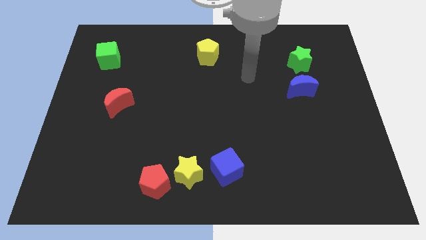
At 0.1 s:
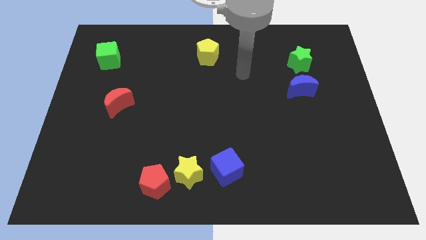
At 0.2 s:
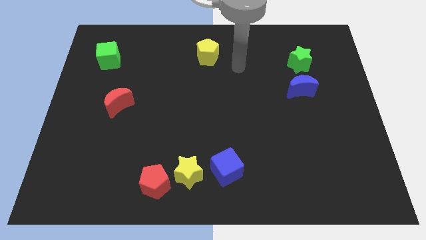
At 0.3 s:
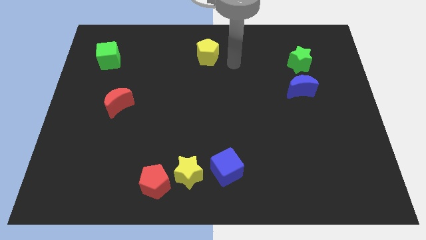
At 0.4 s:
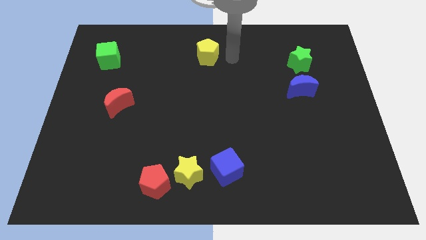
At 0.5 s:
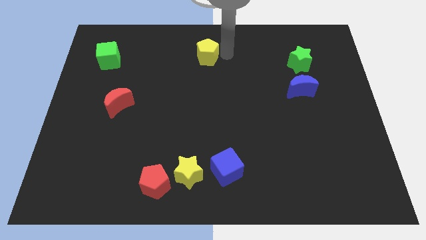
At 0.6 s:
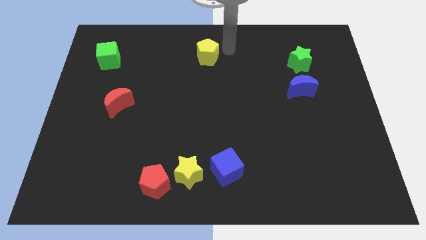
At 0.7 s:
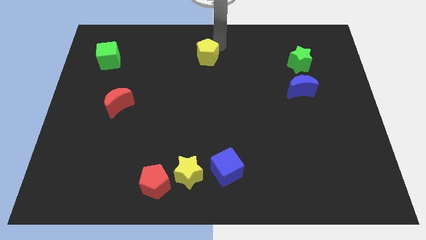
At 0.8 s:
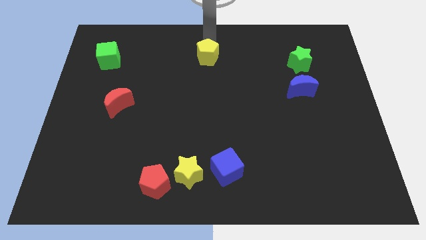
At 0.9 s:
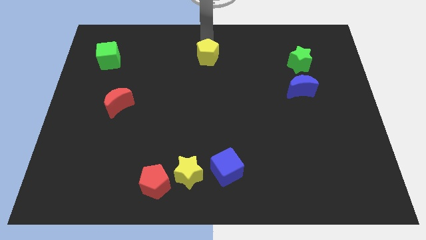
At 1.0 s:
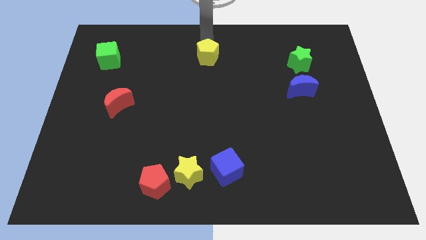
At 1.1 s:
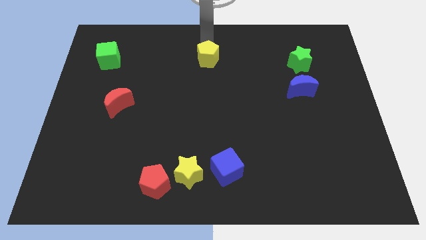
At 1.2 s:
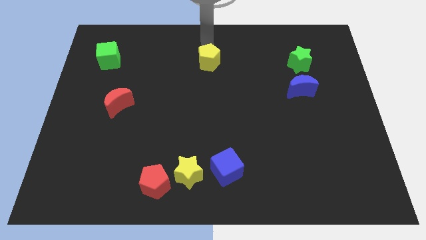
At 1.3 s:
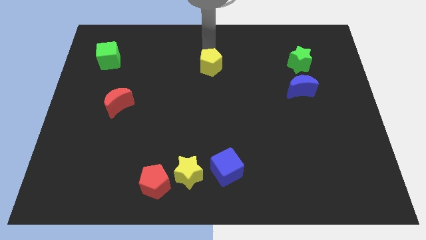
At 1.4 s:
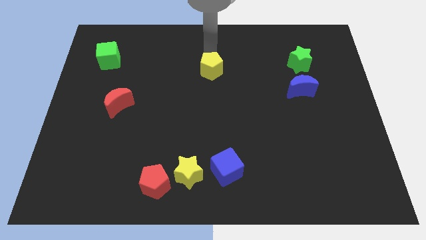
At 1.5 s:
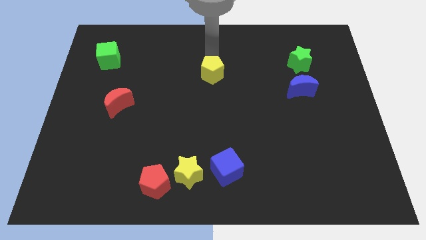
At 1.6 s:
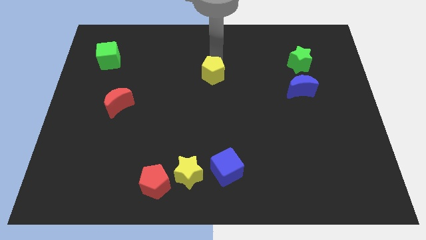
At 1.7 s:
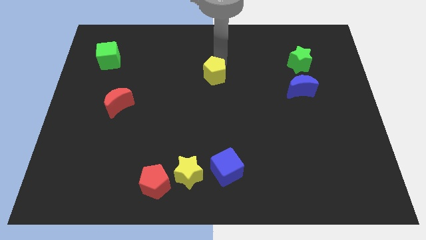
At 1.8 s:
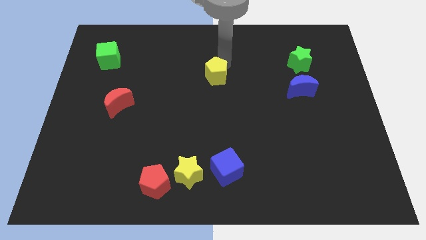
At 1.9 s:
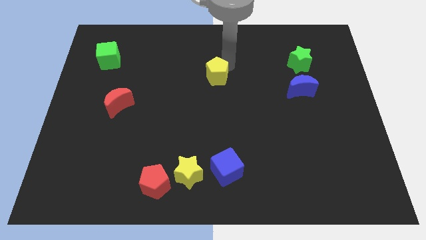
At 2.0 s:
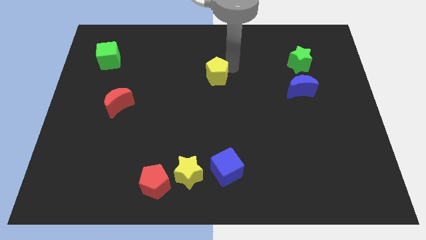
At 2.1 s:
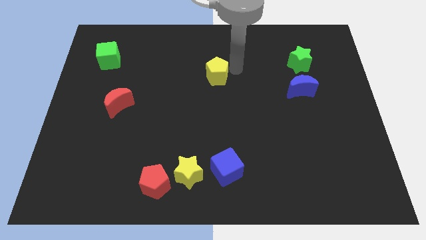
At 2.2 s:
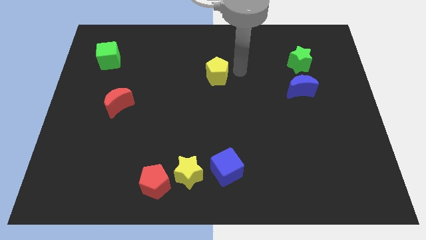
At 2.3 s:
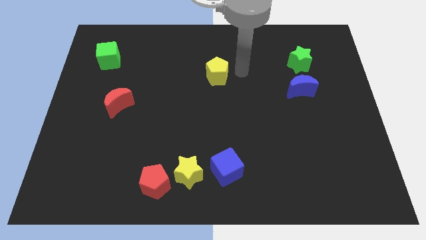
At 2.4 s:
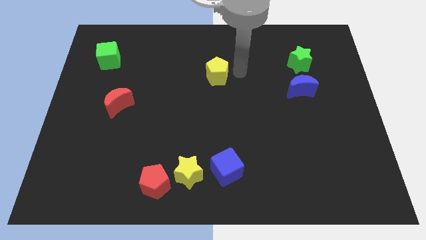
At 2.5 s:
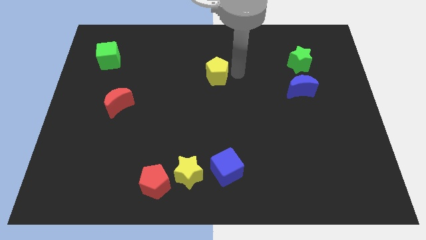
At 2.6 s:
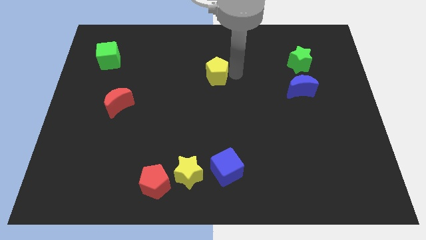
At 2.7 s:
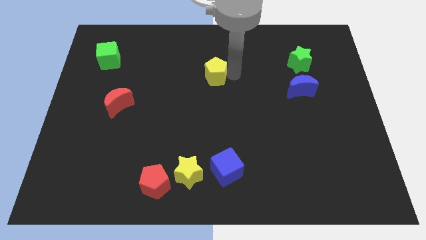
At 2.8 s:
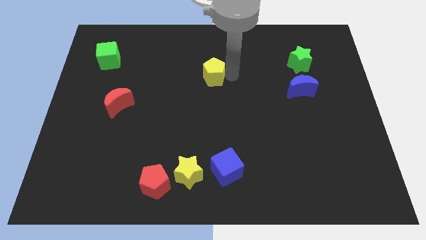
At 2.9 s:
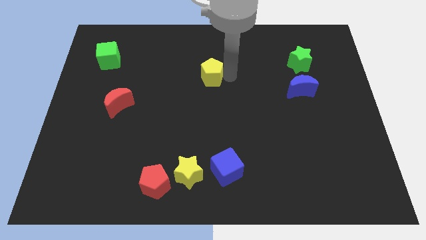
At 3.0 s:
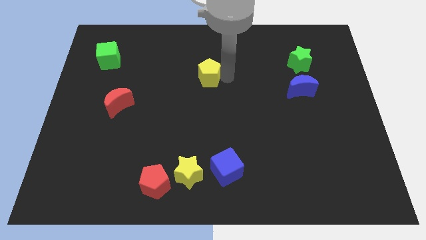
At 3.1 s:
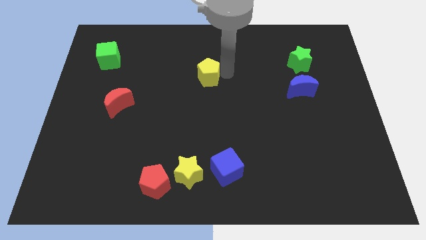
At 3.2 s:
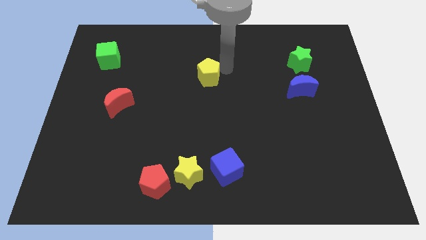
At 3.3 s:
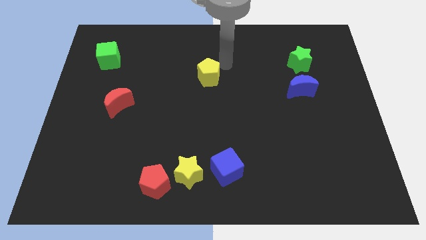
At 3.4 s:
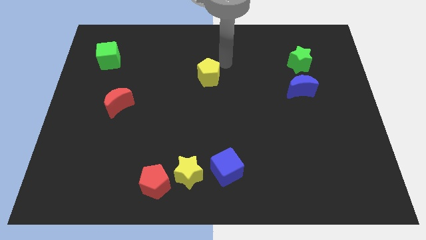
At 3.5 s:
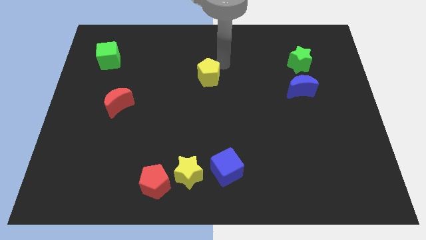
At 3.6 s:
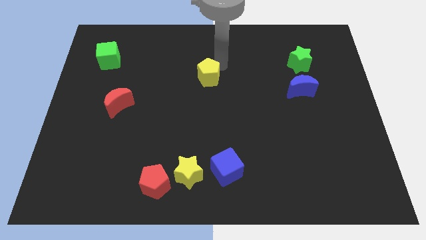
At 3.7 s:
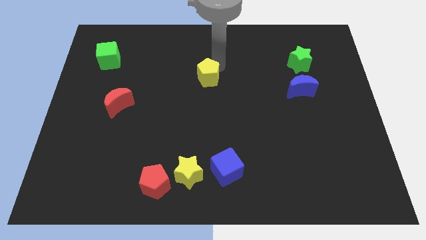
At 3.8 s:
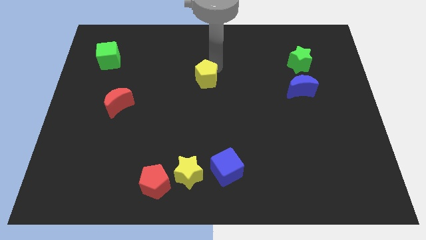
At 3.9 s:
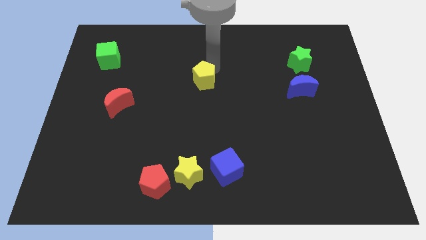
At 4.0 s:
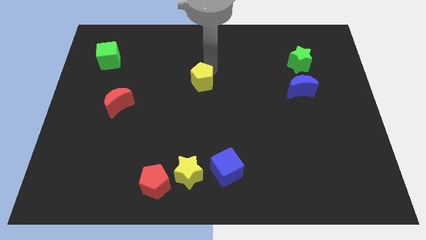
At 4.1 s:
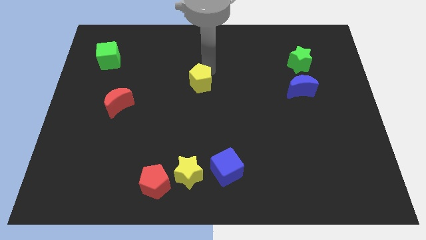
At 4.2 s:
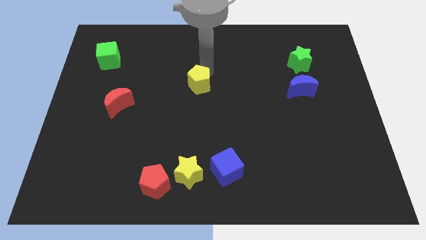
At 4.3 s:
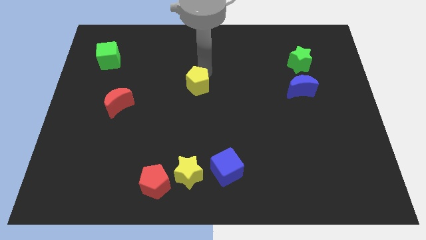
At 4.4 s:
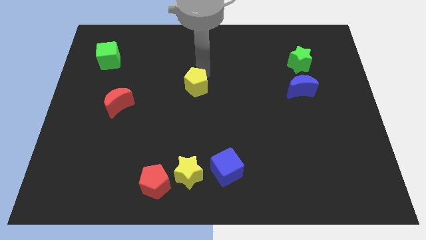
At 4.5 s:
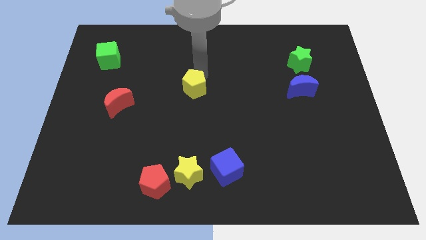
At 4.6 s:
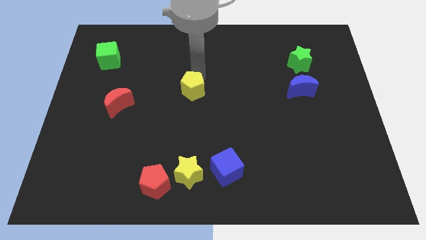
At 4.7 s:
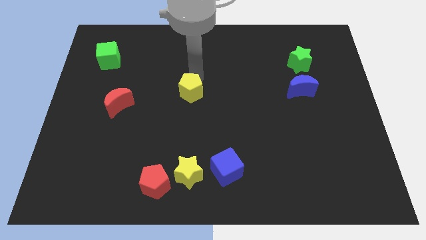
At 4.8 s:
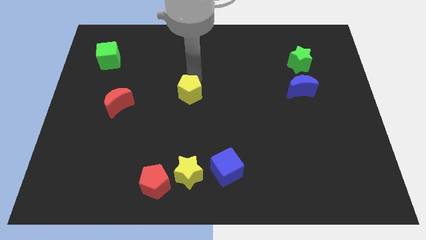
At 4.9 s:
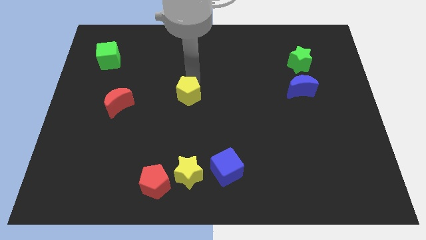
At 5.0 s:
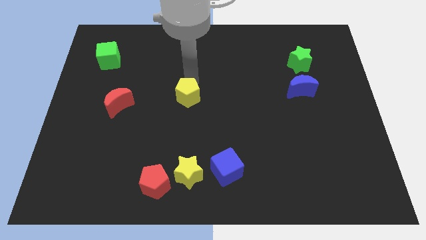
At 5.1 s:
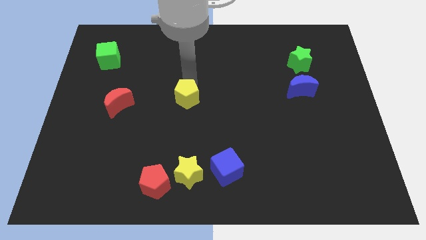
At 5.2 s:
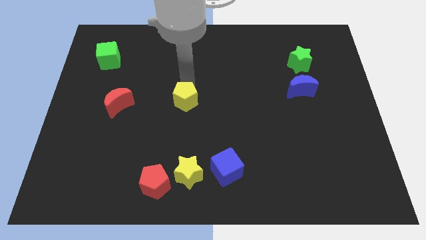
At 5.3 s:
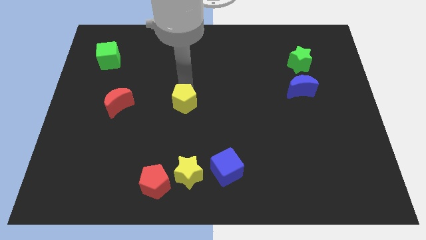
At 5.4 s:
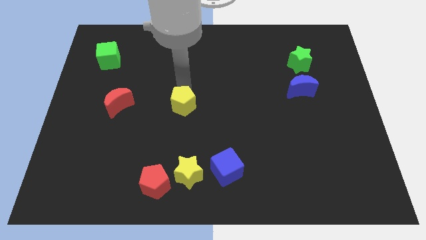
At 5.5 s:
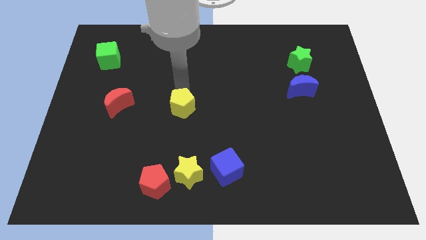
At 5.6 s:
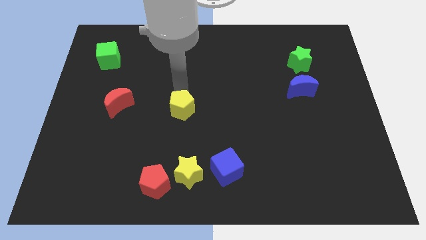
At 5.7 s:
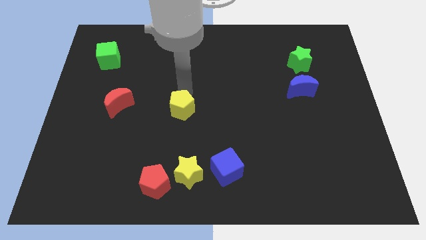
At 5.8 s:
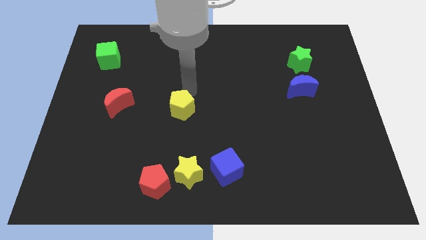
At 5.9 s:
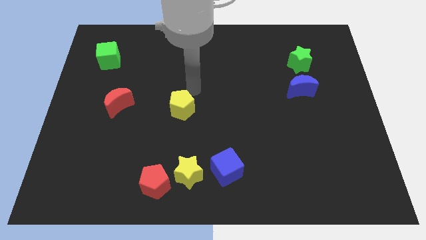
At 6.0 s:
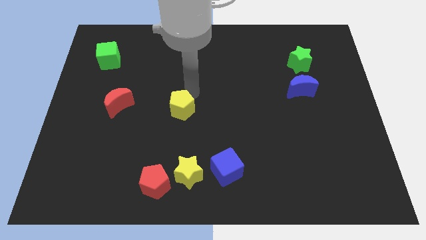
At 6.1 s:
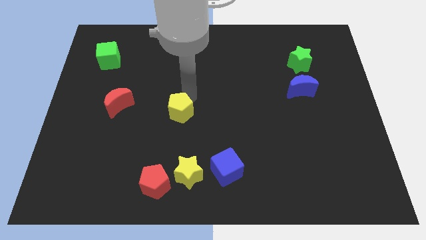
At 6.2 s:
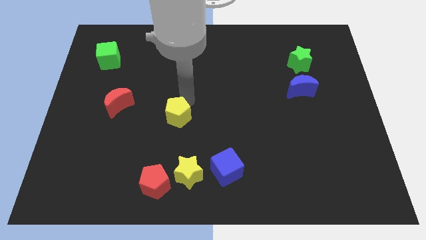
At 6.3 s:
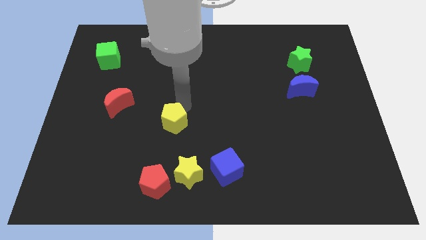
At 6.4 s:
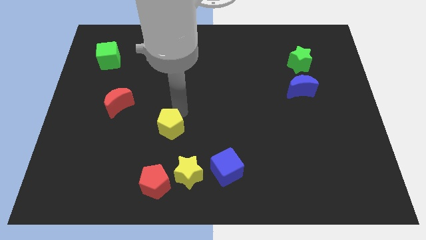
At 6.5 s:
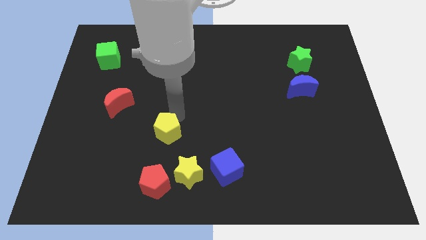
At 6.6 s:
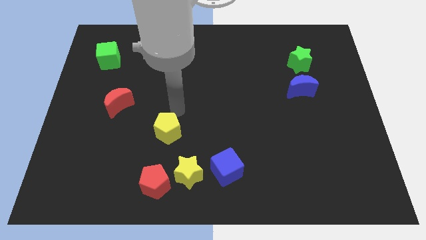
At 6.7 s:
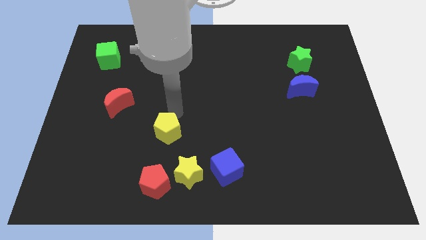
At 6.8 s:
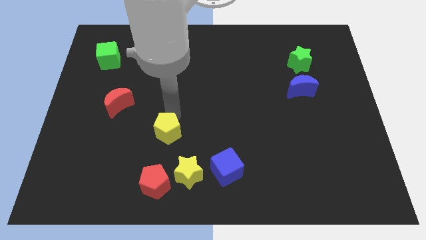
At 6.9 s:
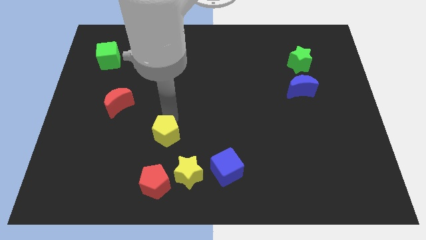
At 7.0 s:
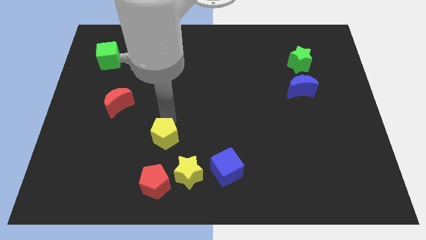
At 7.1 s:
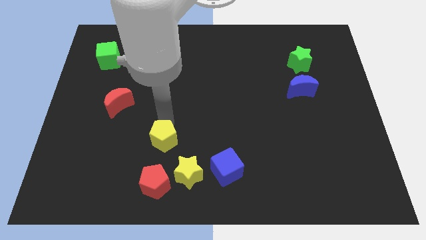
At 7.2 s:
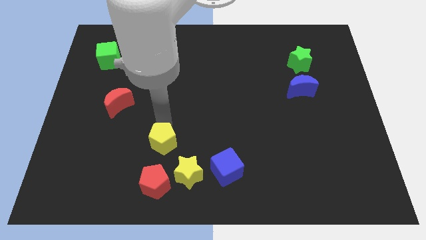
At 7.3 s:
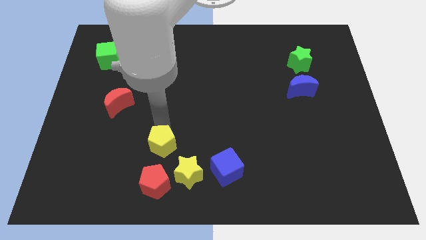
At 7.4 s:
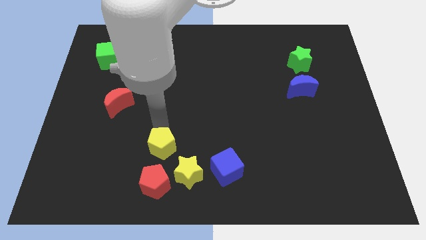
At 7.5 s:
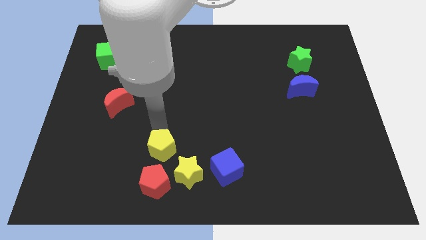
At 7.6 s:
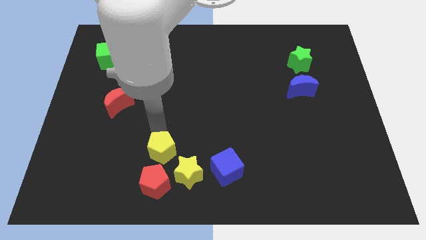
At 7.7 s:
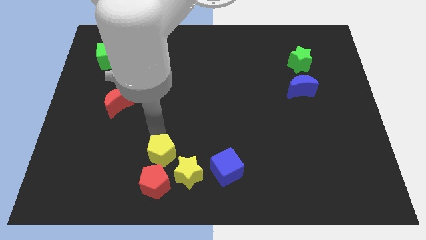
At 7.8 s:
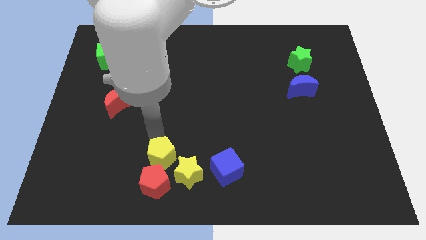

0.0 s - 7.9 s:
push the yellow pentagon next to the red pentagon

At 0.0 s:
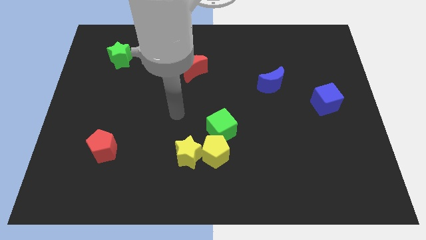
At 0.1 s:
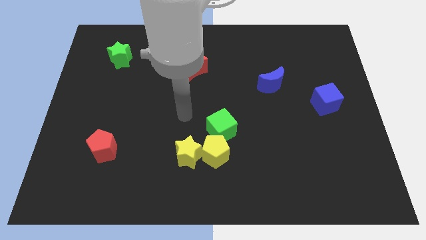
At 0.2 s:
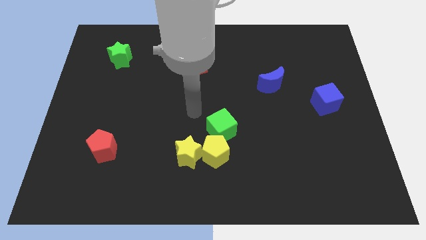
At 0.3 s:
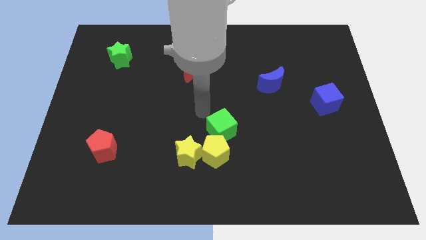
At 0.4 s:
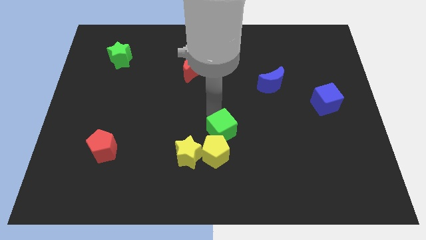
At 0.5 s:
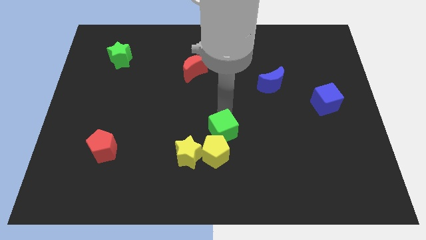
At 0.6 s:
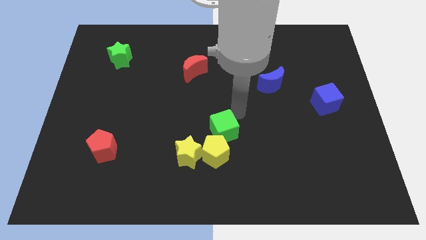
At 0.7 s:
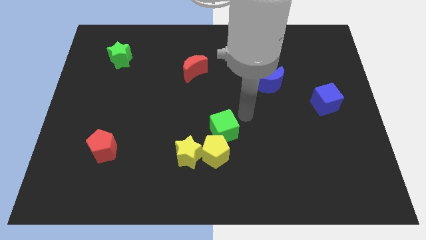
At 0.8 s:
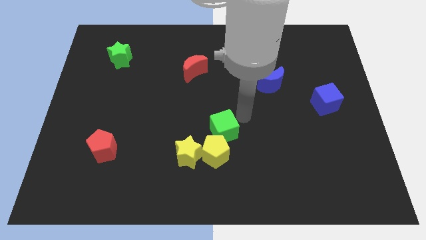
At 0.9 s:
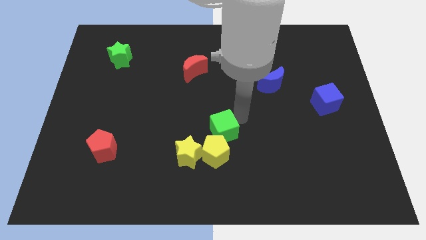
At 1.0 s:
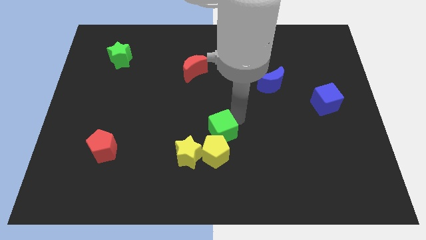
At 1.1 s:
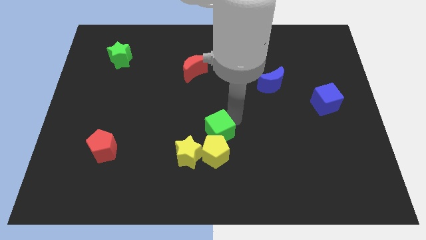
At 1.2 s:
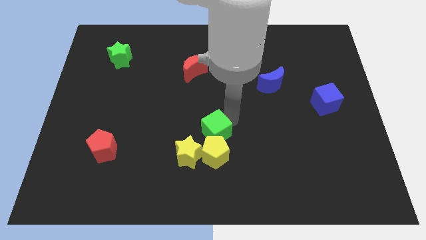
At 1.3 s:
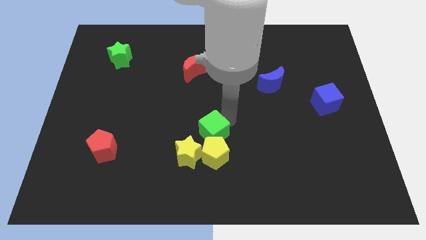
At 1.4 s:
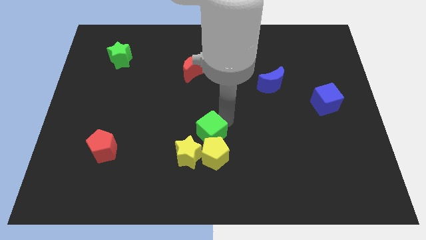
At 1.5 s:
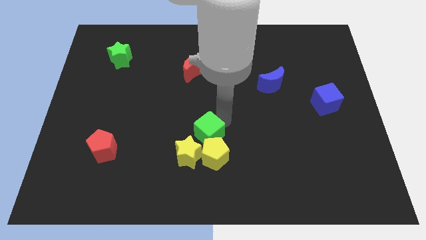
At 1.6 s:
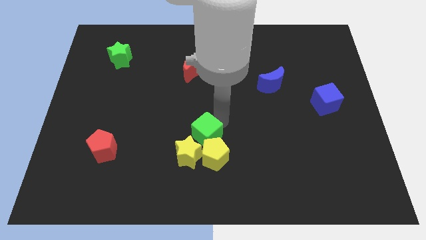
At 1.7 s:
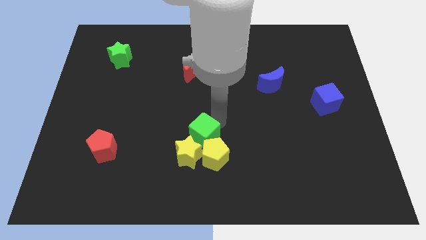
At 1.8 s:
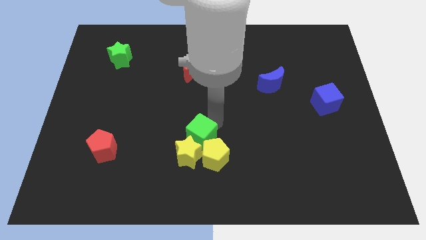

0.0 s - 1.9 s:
move the green cube next to the yellow star
